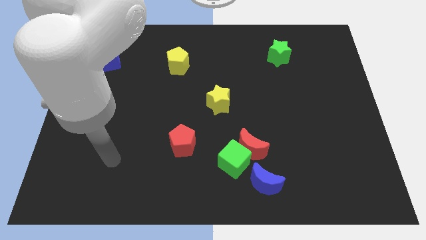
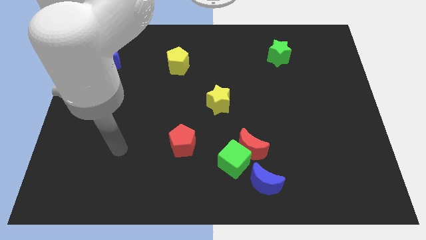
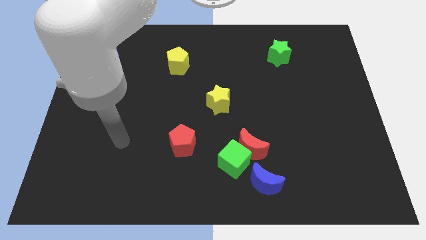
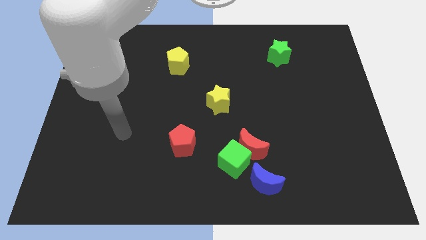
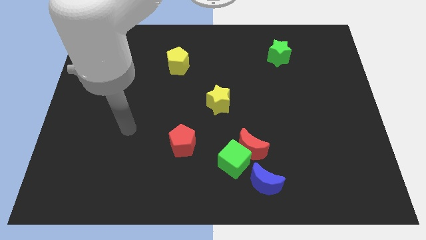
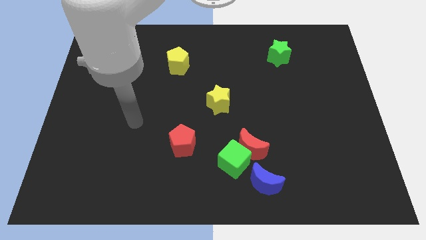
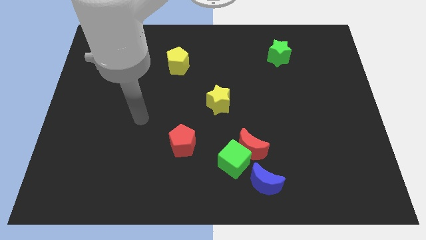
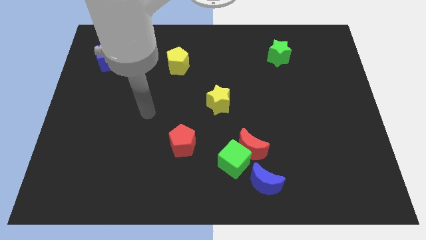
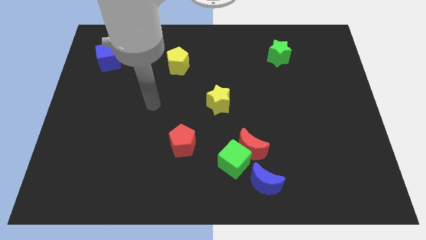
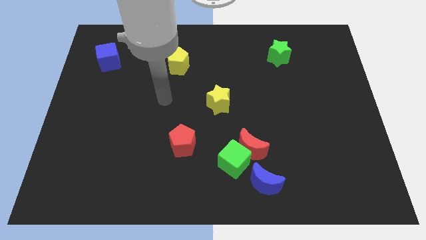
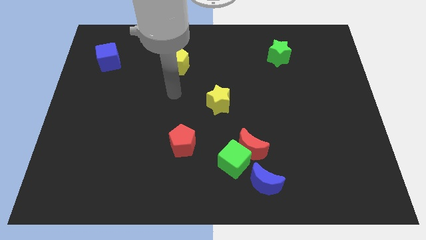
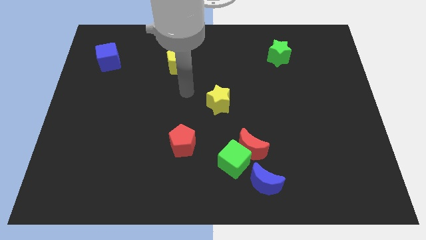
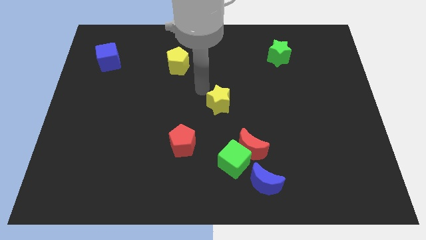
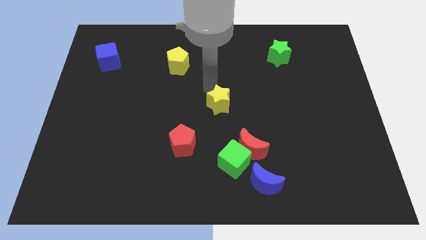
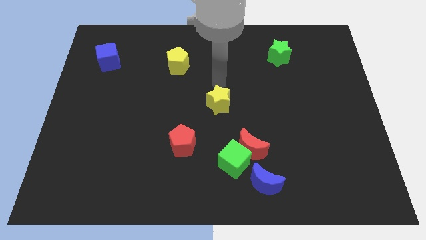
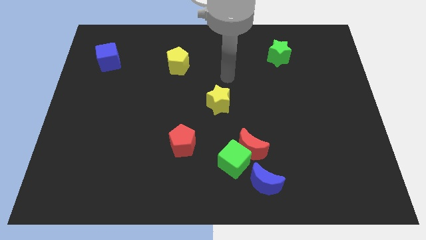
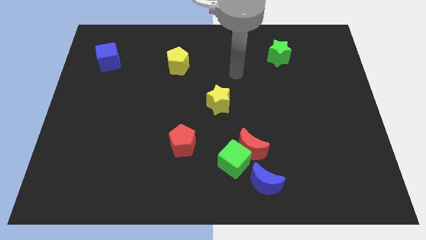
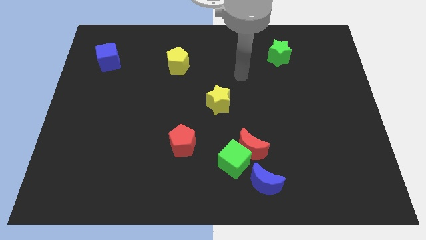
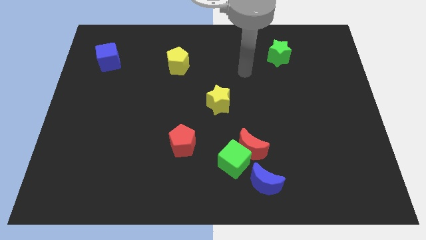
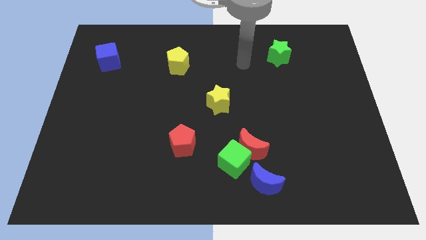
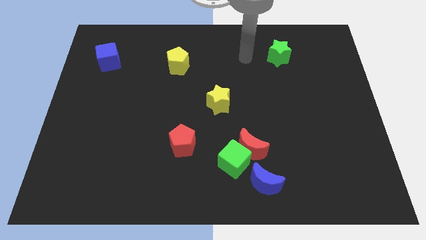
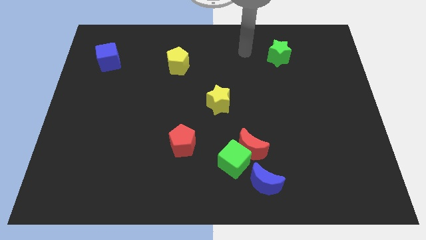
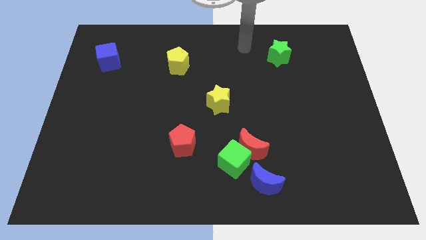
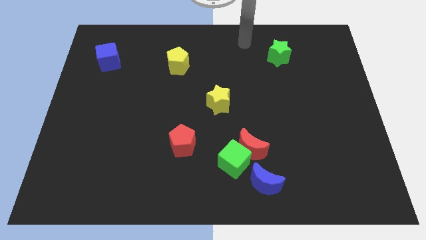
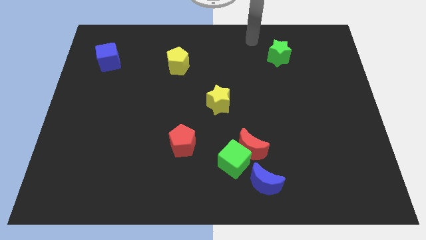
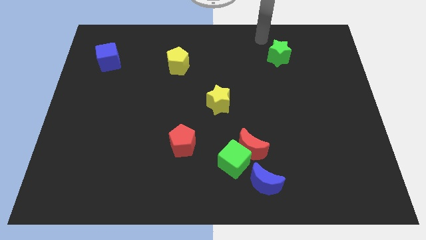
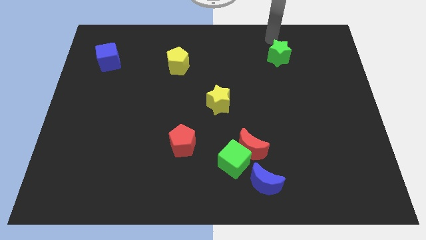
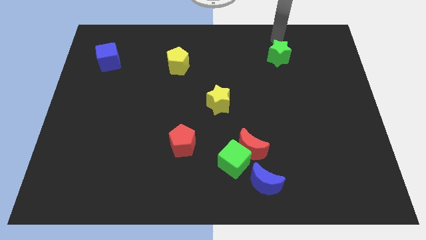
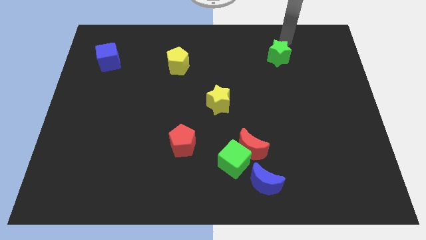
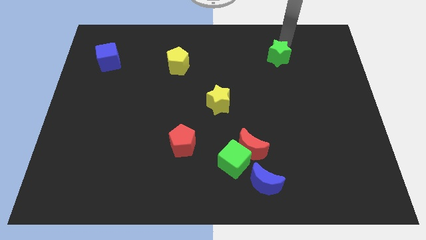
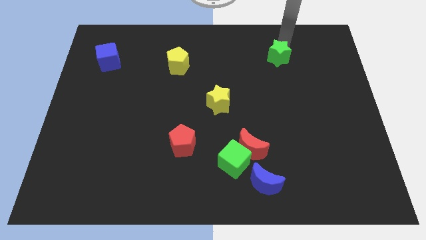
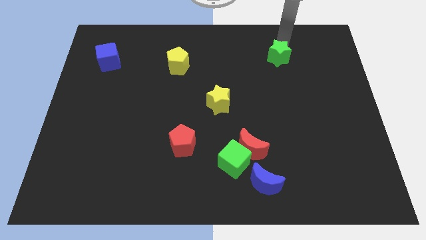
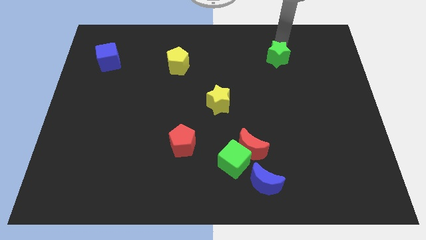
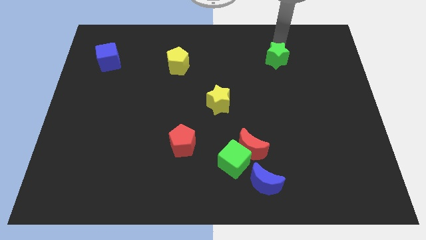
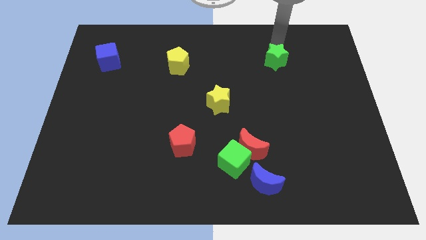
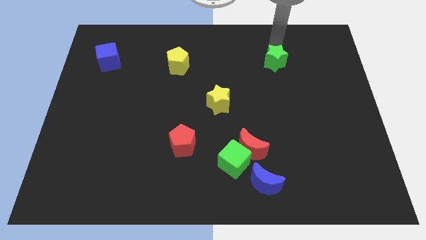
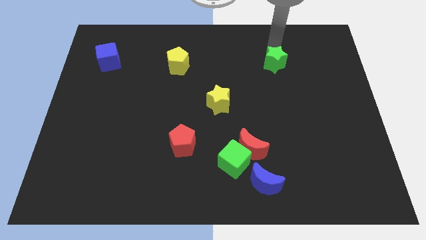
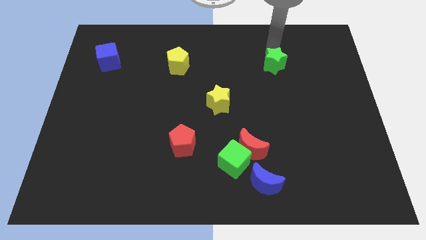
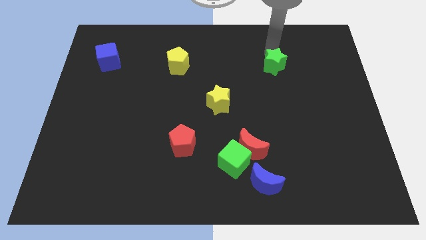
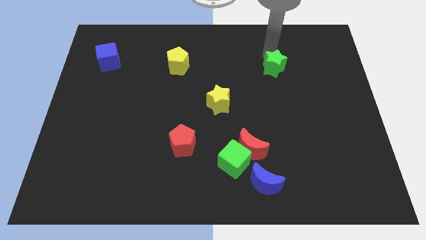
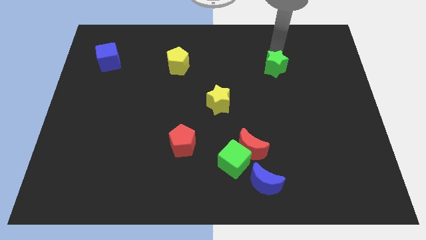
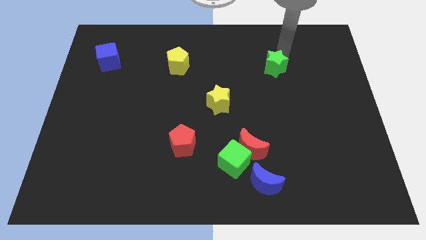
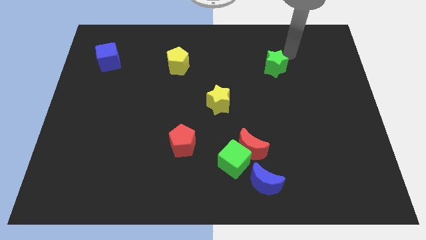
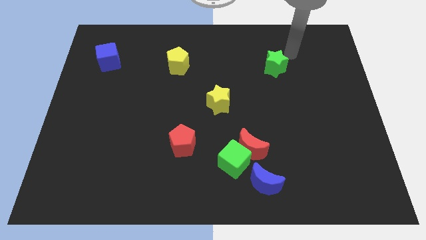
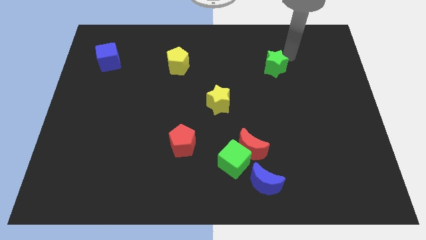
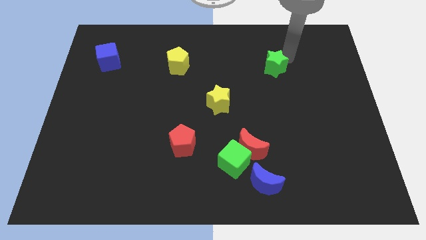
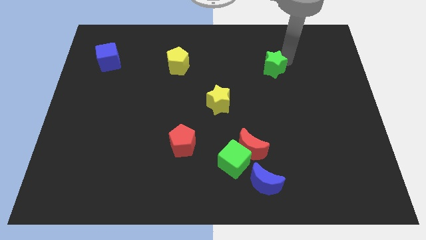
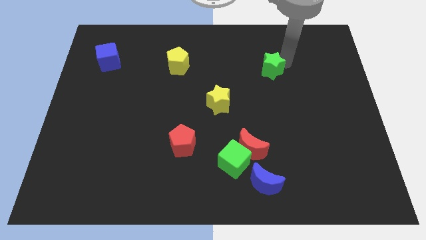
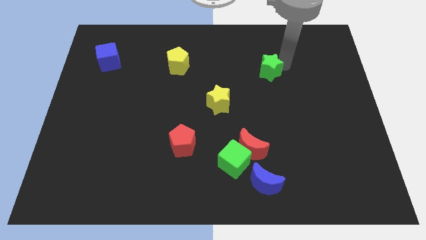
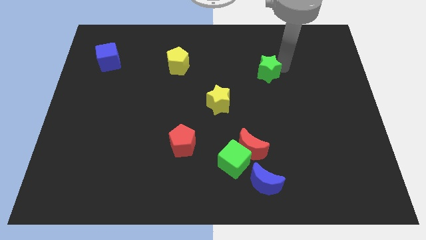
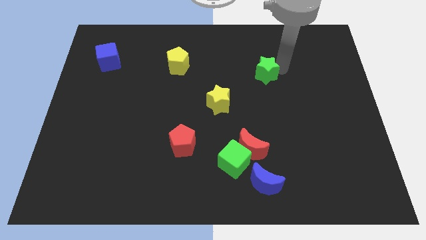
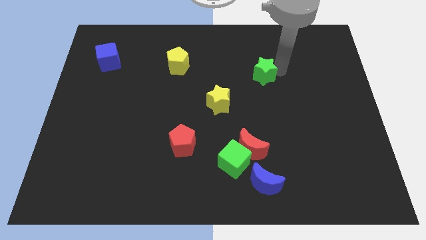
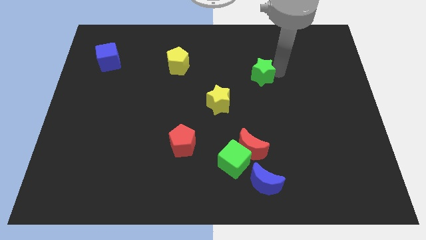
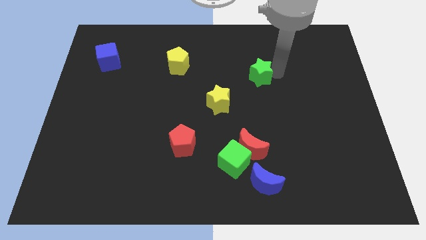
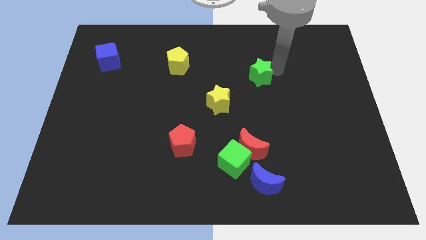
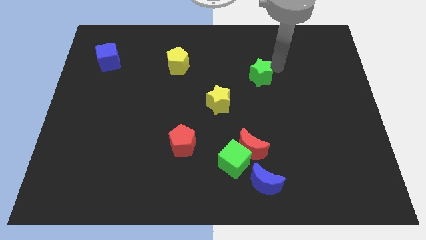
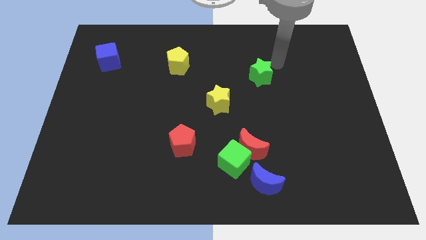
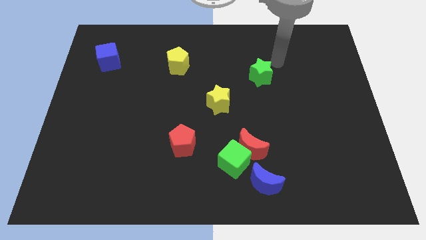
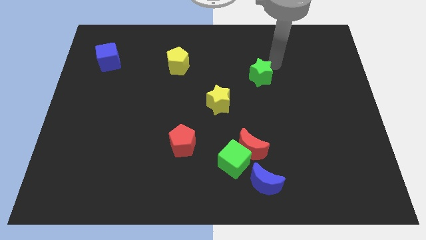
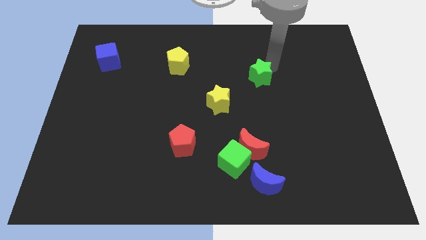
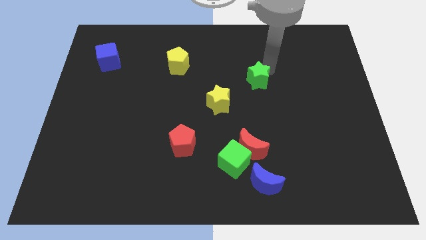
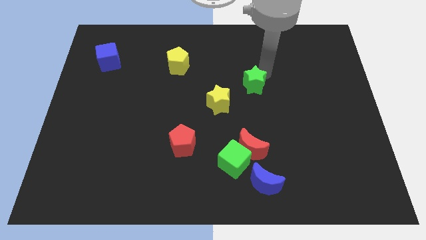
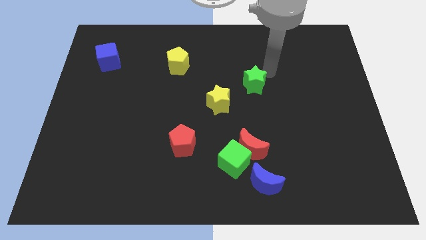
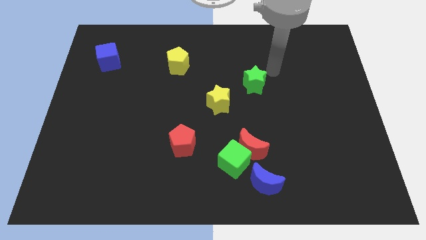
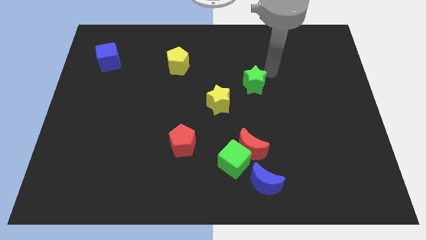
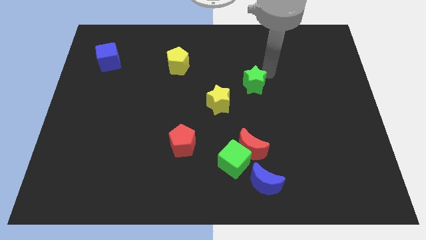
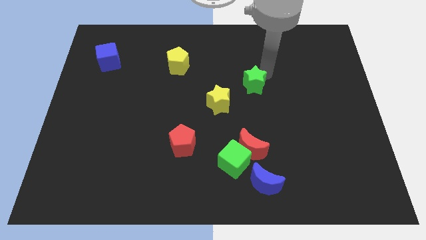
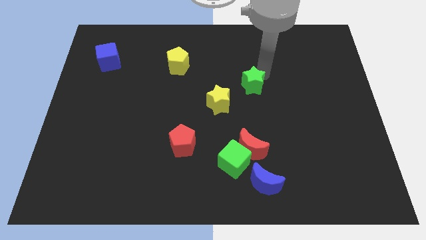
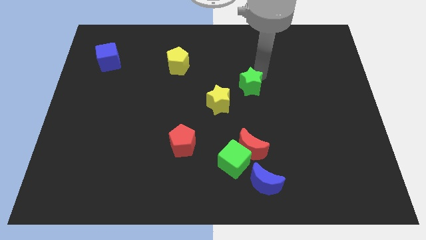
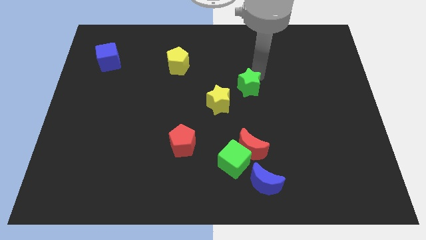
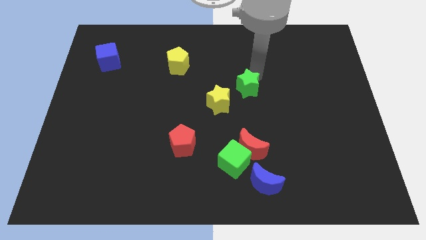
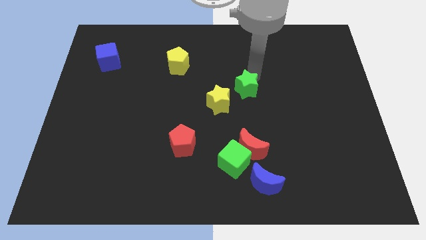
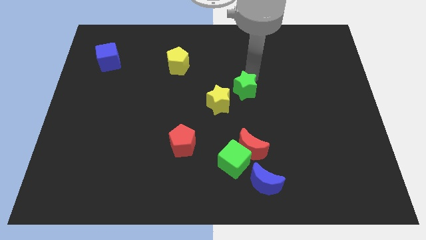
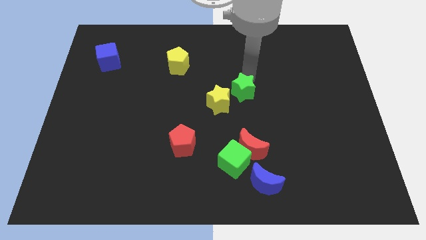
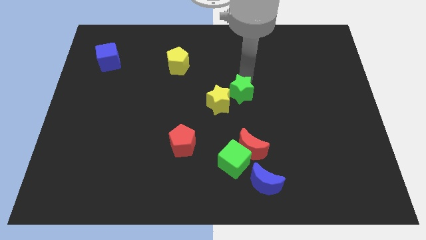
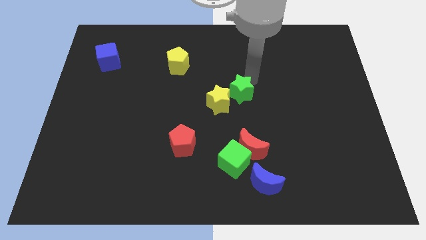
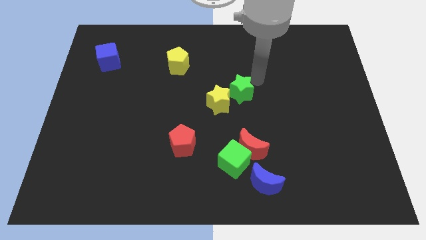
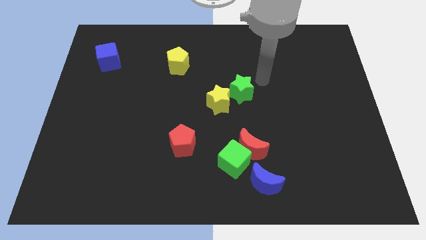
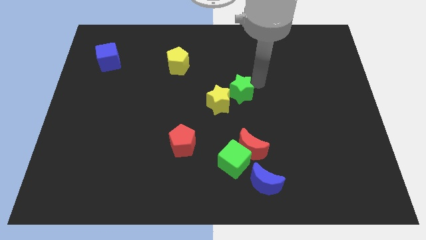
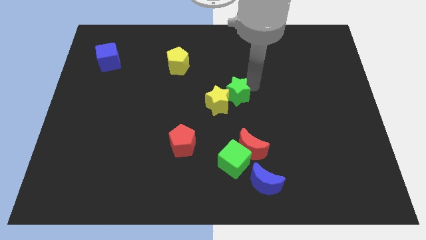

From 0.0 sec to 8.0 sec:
push the green star towards the yellow star
